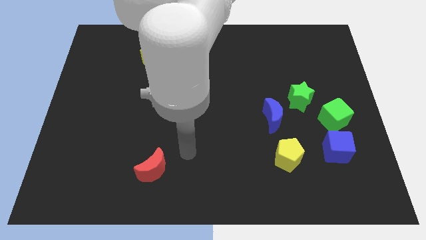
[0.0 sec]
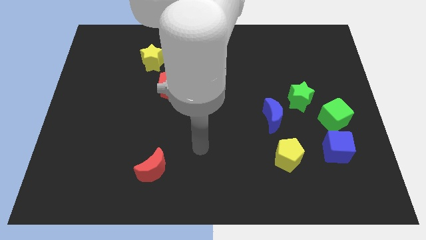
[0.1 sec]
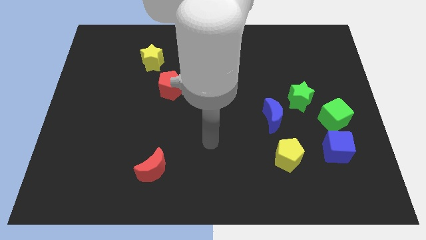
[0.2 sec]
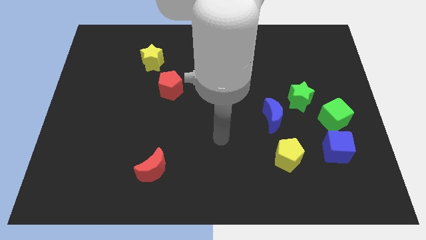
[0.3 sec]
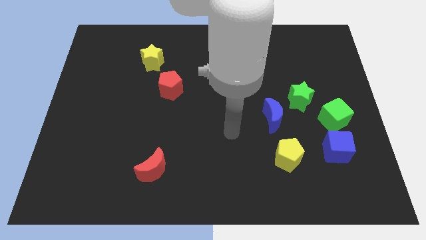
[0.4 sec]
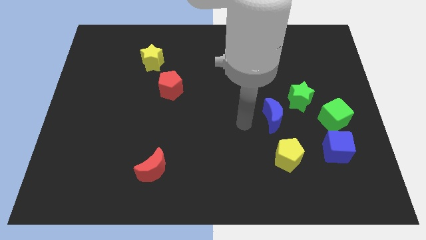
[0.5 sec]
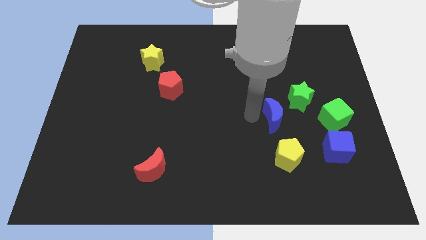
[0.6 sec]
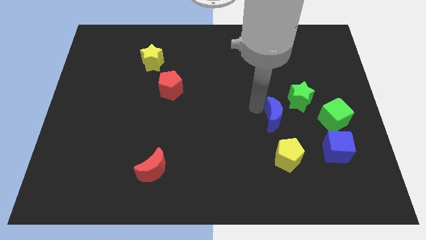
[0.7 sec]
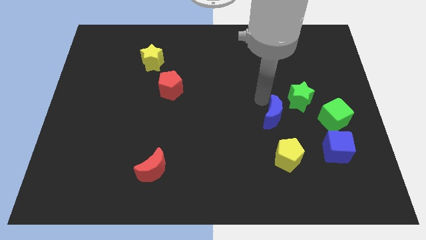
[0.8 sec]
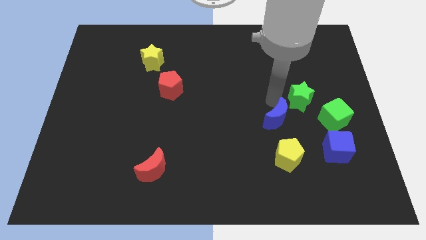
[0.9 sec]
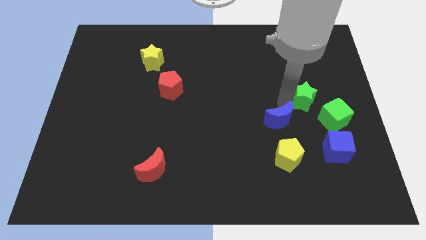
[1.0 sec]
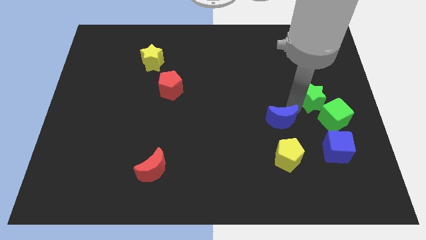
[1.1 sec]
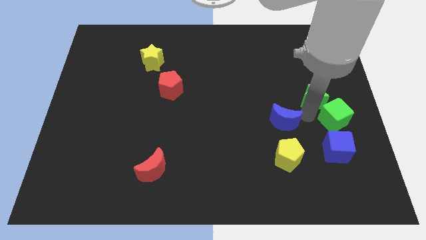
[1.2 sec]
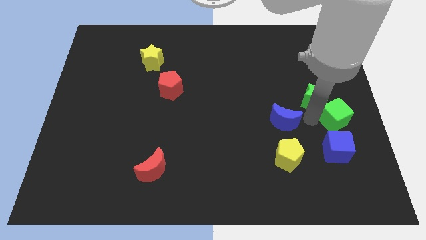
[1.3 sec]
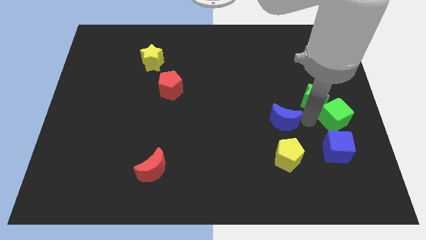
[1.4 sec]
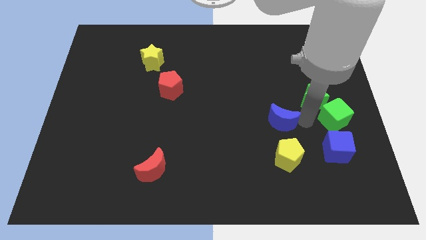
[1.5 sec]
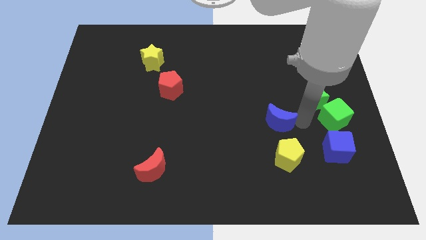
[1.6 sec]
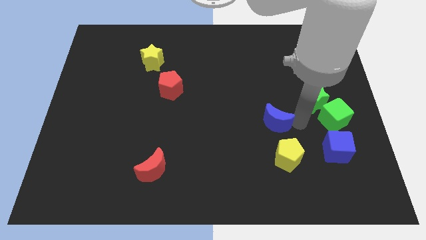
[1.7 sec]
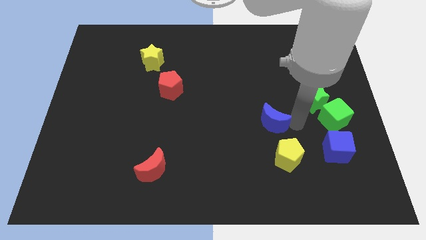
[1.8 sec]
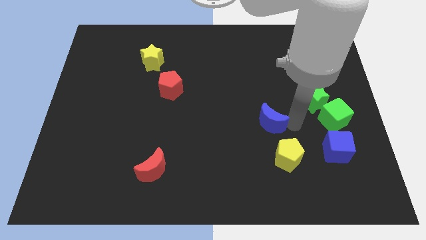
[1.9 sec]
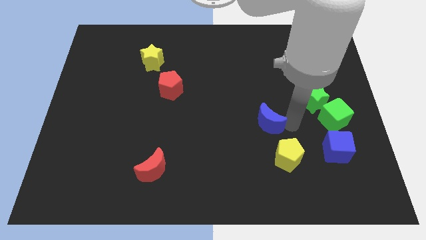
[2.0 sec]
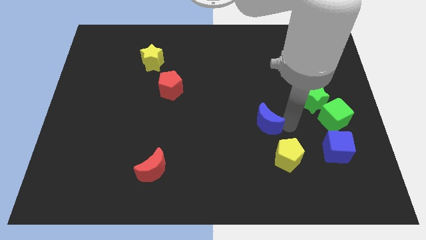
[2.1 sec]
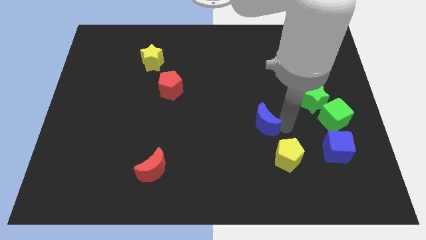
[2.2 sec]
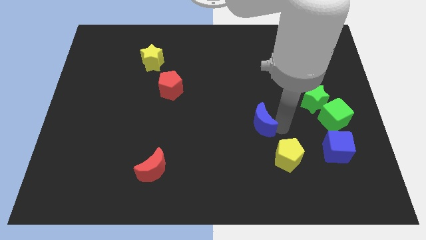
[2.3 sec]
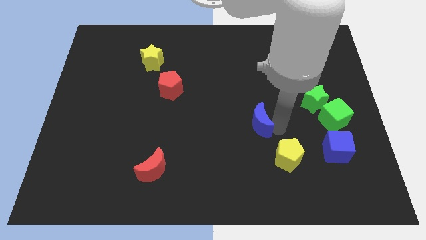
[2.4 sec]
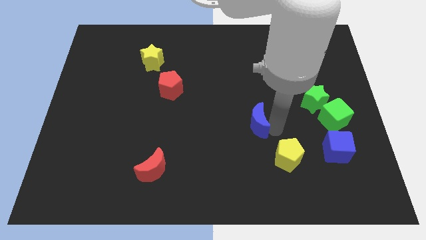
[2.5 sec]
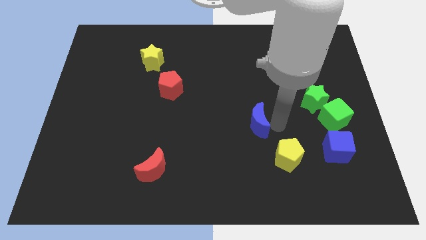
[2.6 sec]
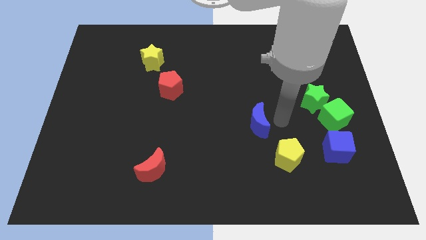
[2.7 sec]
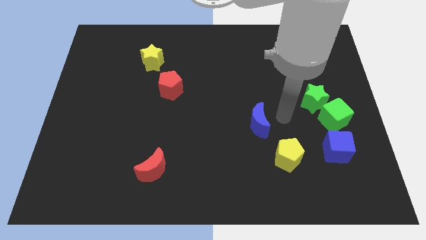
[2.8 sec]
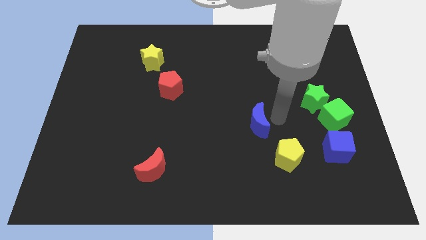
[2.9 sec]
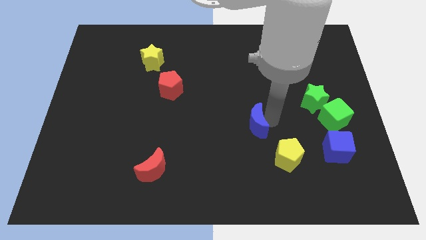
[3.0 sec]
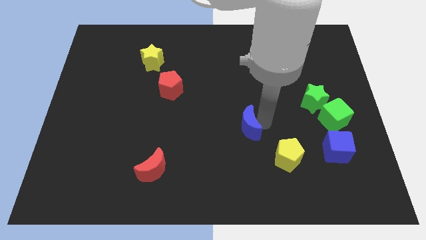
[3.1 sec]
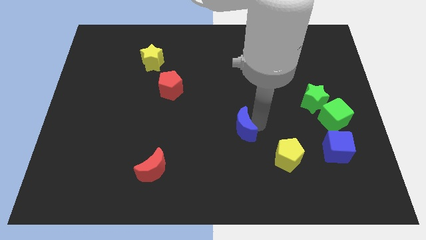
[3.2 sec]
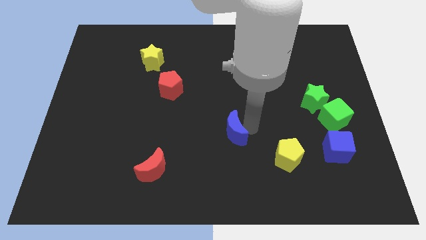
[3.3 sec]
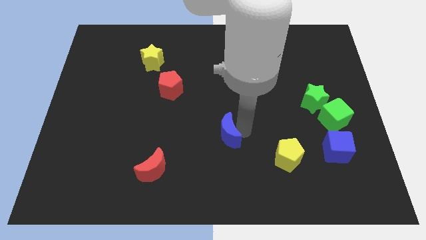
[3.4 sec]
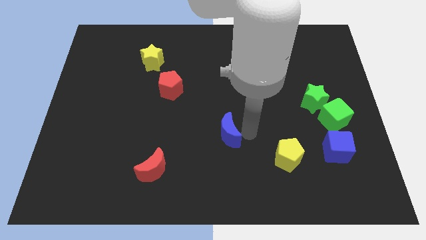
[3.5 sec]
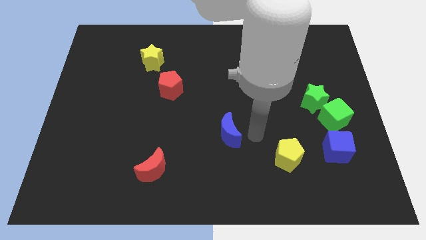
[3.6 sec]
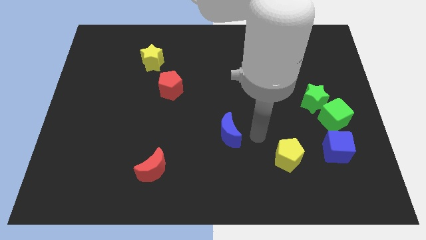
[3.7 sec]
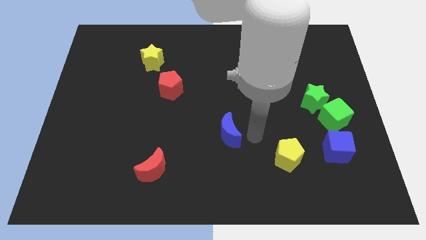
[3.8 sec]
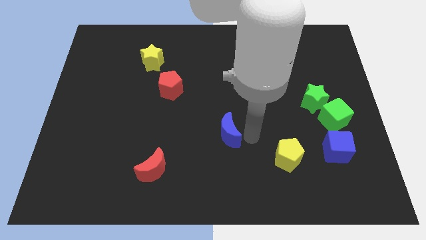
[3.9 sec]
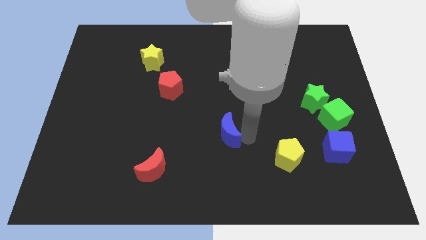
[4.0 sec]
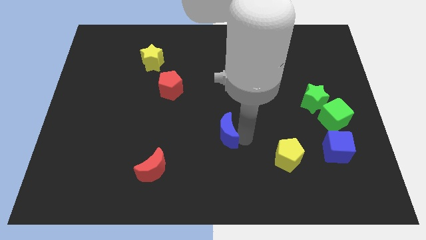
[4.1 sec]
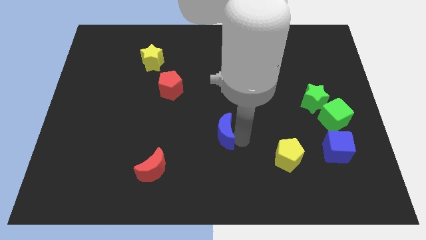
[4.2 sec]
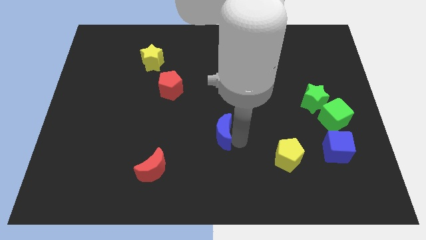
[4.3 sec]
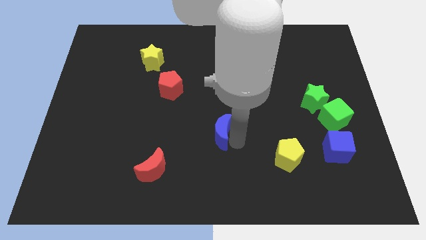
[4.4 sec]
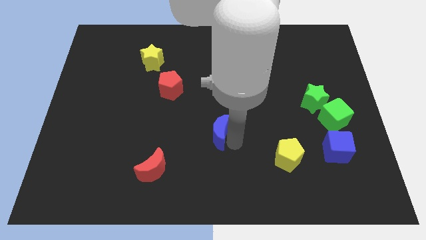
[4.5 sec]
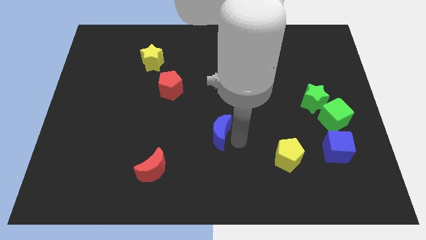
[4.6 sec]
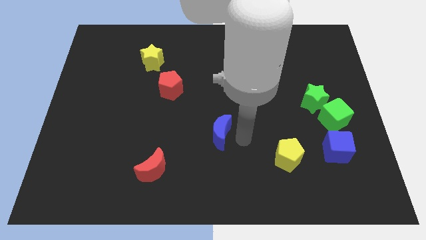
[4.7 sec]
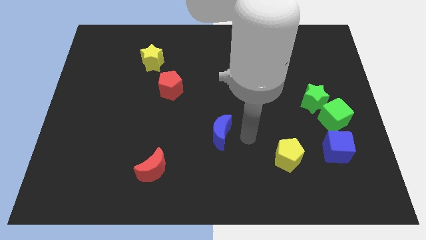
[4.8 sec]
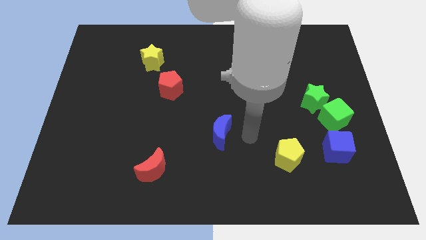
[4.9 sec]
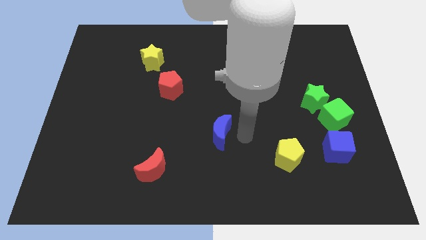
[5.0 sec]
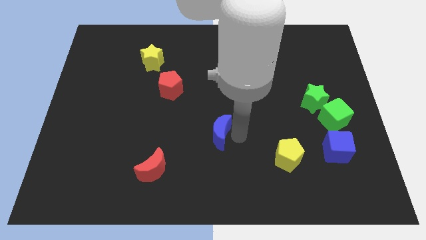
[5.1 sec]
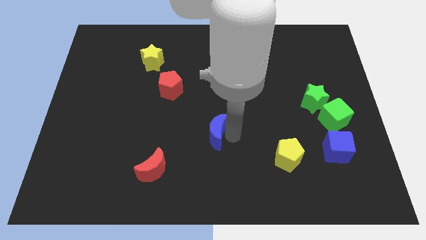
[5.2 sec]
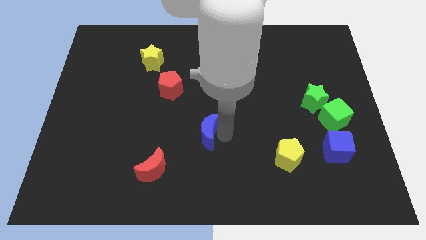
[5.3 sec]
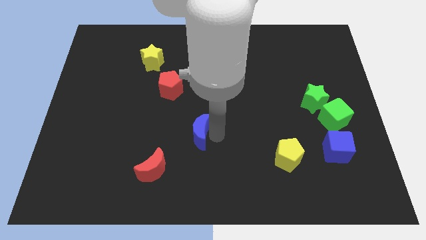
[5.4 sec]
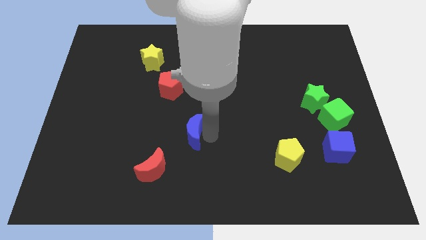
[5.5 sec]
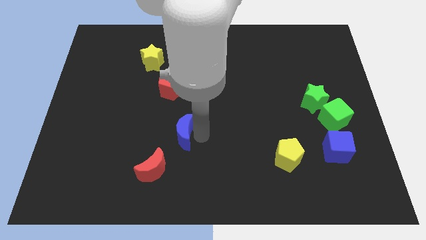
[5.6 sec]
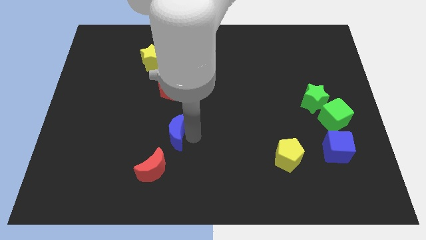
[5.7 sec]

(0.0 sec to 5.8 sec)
push the blue moon above the red moon

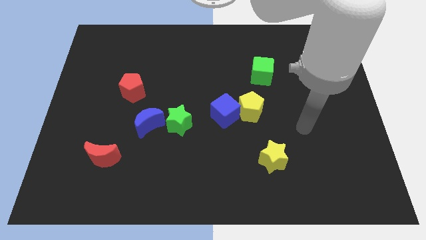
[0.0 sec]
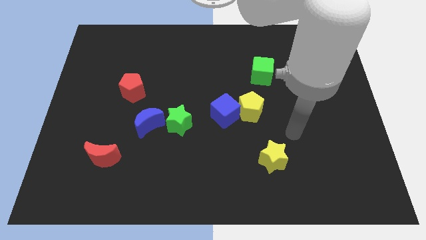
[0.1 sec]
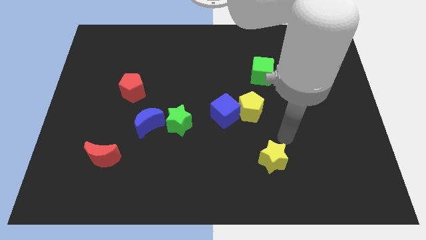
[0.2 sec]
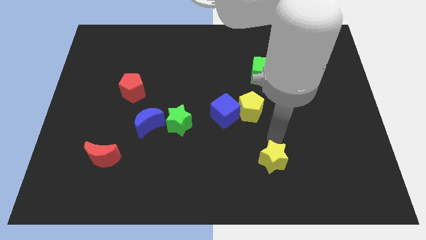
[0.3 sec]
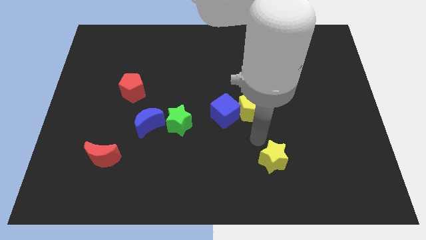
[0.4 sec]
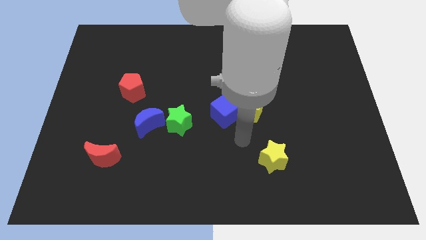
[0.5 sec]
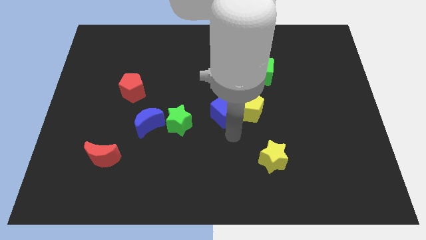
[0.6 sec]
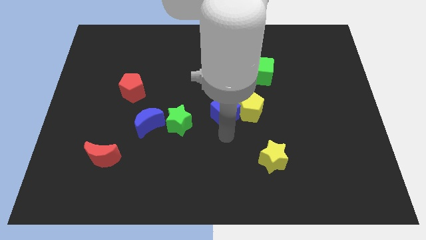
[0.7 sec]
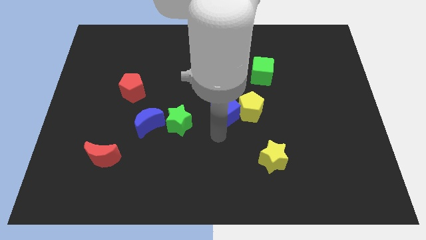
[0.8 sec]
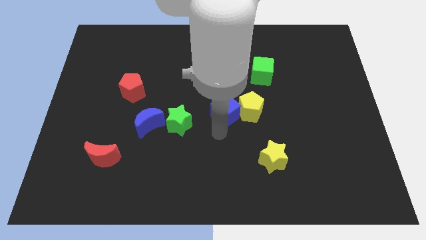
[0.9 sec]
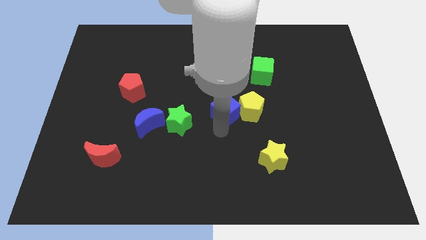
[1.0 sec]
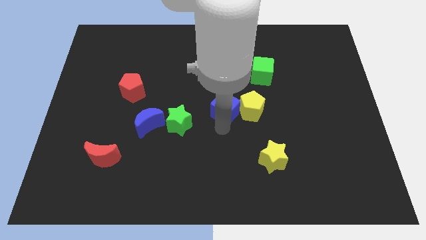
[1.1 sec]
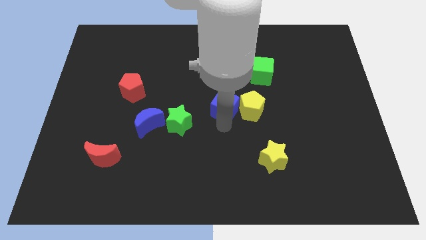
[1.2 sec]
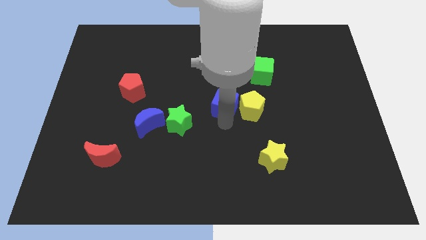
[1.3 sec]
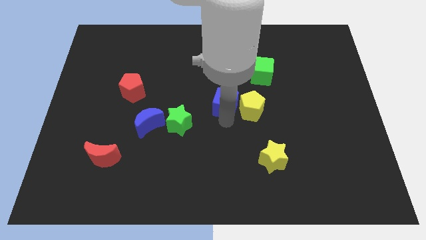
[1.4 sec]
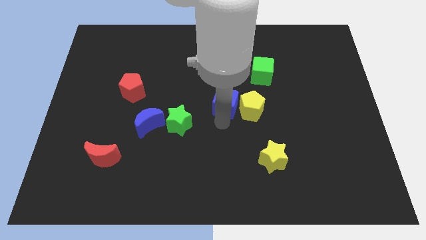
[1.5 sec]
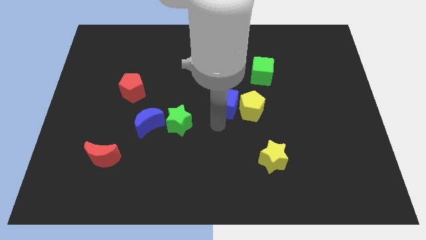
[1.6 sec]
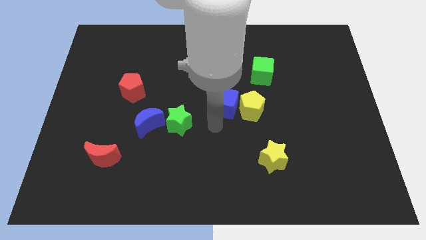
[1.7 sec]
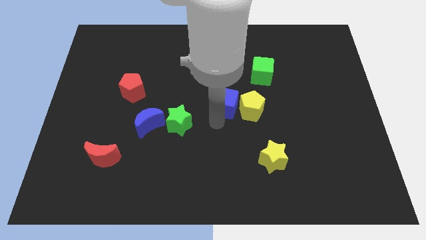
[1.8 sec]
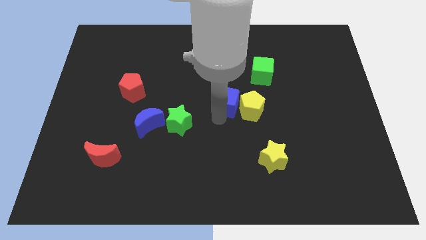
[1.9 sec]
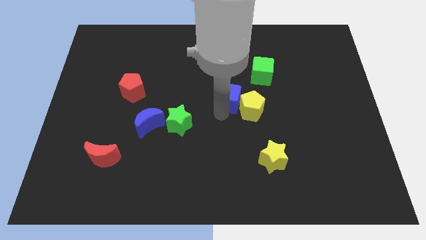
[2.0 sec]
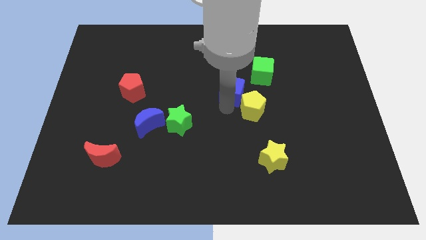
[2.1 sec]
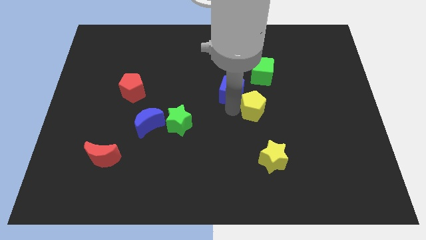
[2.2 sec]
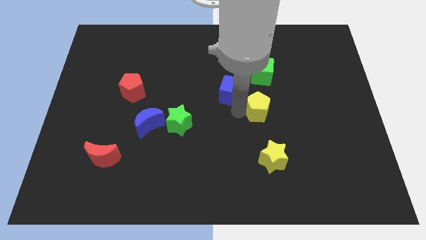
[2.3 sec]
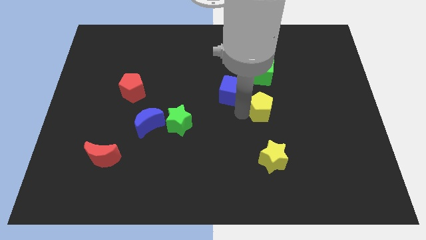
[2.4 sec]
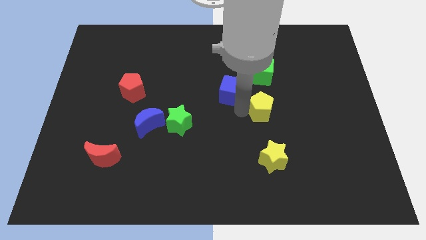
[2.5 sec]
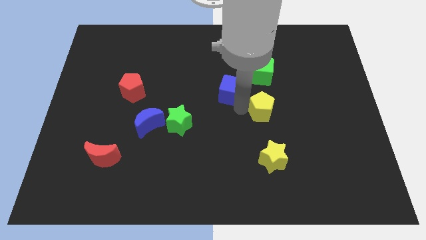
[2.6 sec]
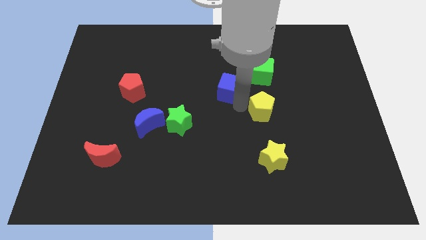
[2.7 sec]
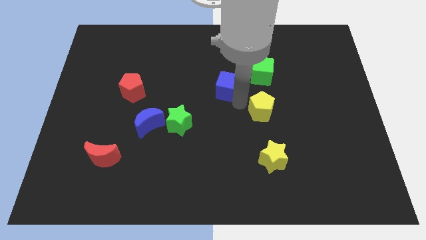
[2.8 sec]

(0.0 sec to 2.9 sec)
move the blue cube just left of the green cube
